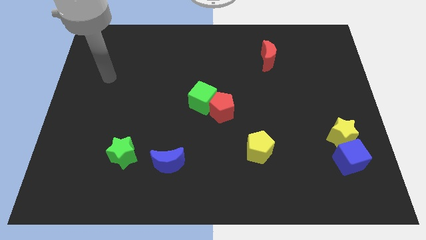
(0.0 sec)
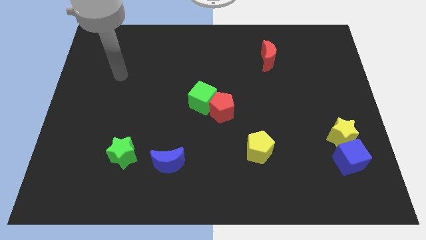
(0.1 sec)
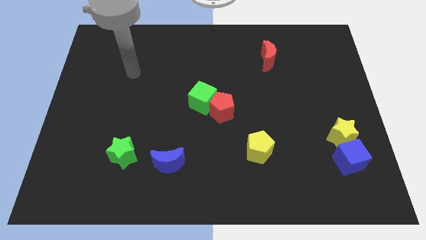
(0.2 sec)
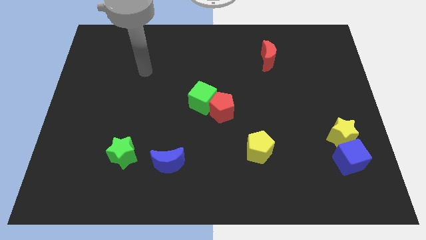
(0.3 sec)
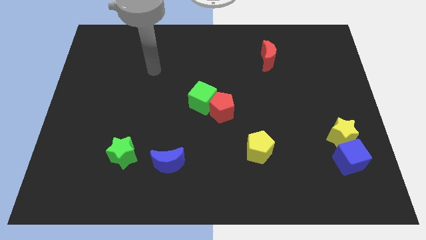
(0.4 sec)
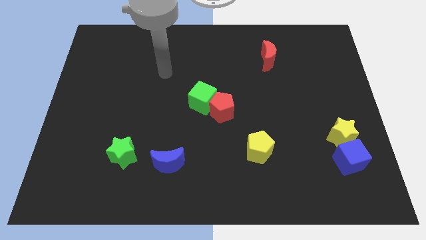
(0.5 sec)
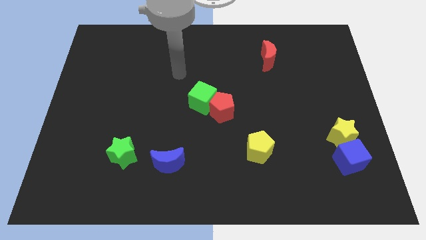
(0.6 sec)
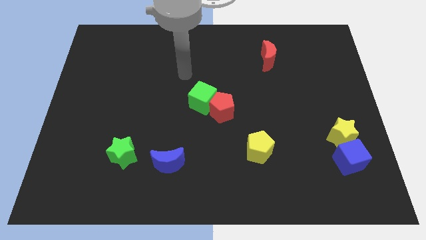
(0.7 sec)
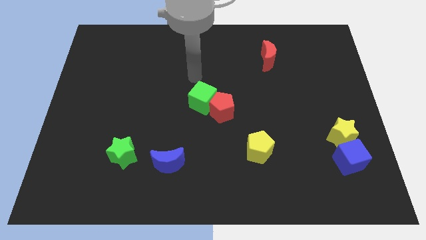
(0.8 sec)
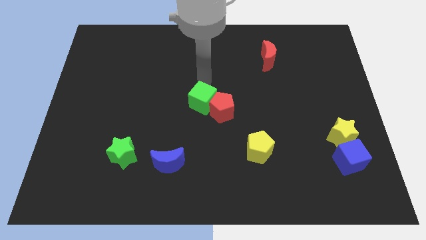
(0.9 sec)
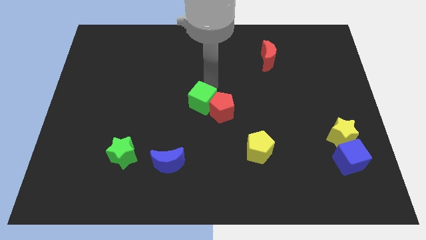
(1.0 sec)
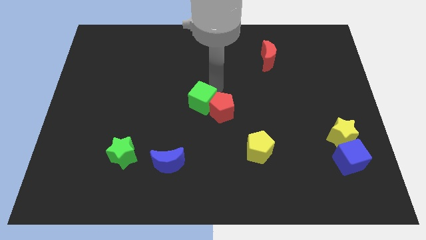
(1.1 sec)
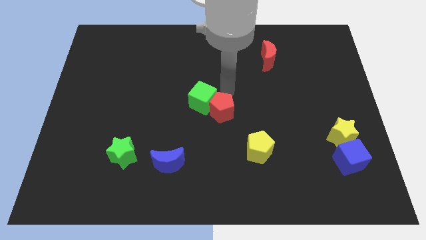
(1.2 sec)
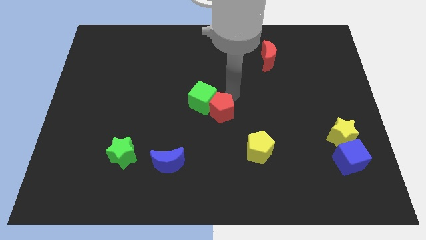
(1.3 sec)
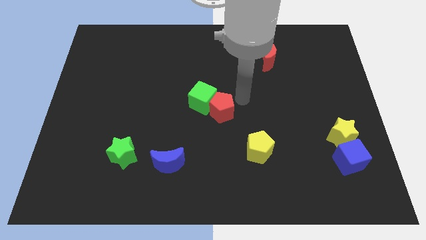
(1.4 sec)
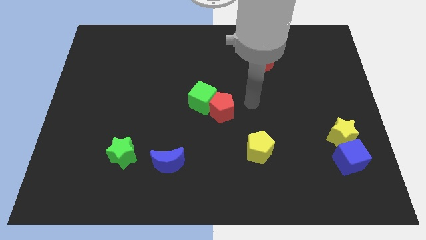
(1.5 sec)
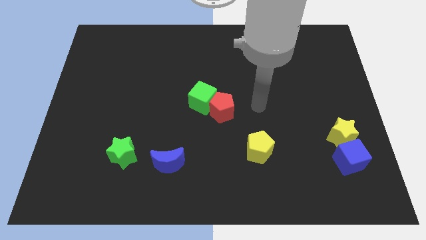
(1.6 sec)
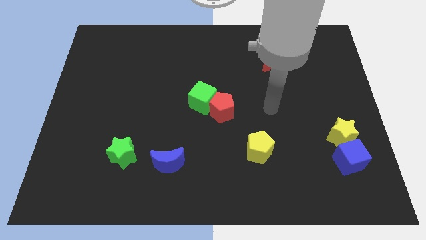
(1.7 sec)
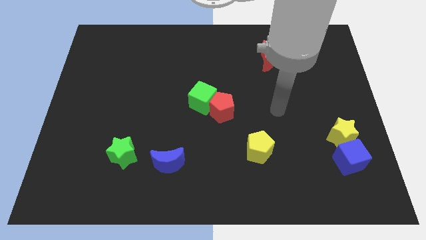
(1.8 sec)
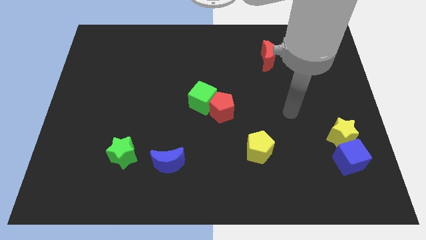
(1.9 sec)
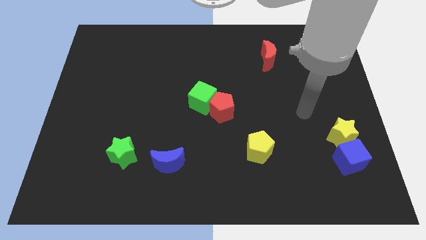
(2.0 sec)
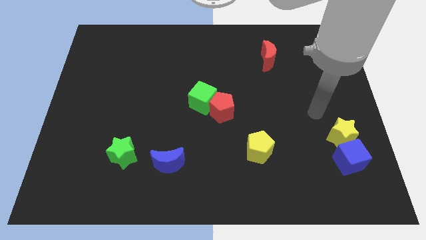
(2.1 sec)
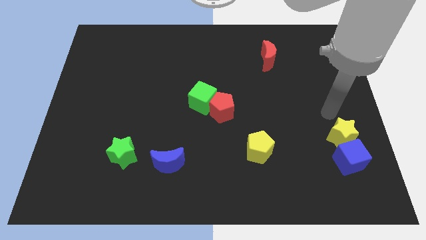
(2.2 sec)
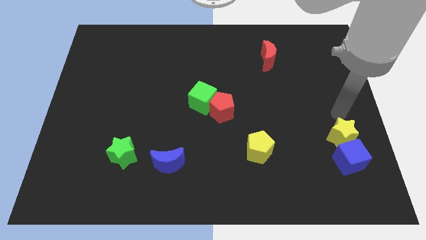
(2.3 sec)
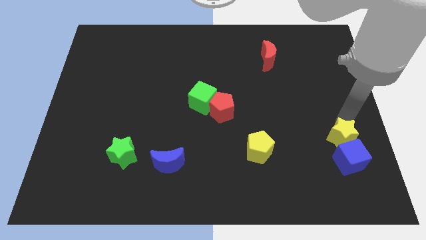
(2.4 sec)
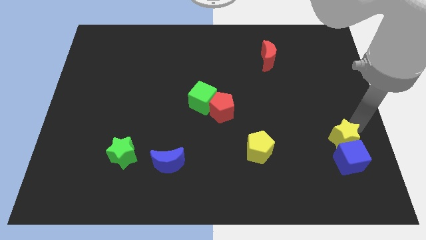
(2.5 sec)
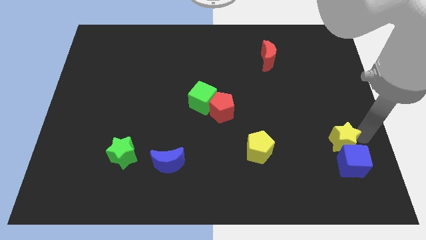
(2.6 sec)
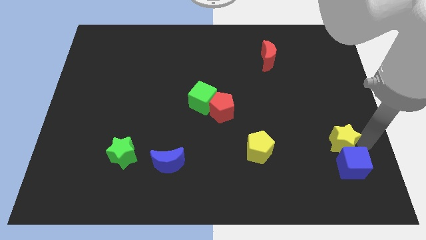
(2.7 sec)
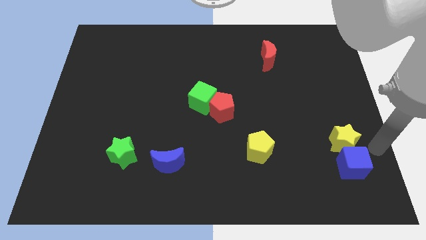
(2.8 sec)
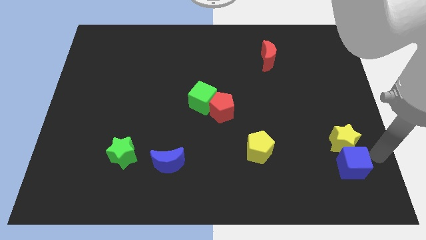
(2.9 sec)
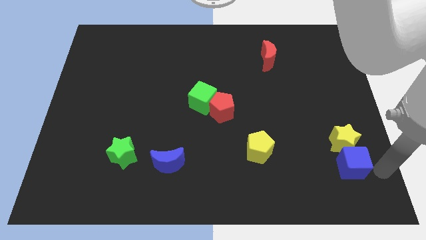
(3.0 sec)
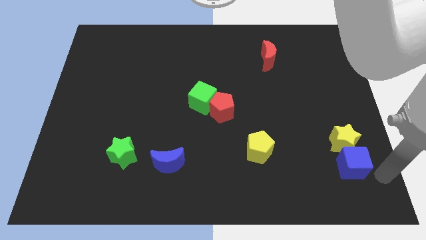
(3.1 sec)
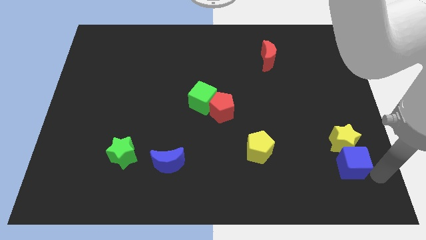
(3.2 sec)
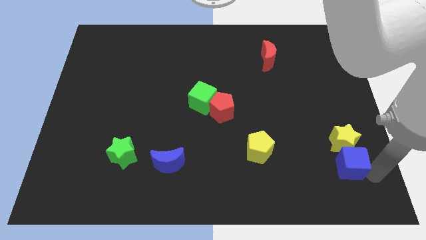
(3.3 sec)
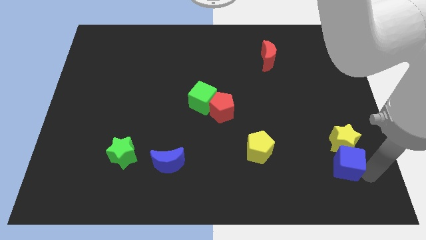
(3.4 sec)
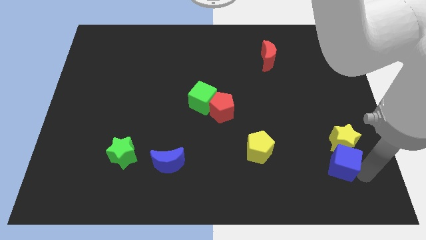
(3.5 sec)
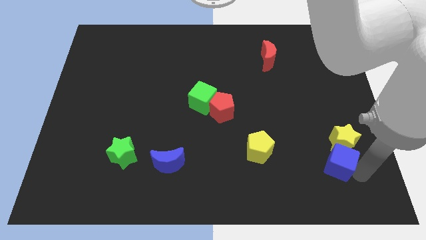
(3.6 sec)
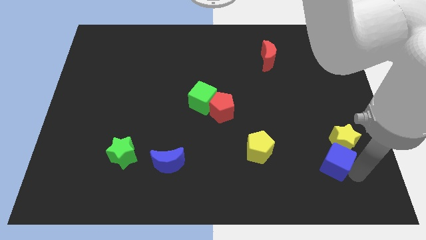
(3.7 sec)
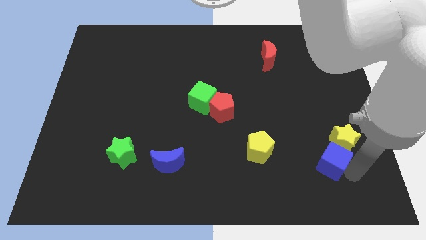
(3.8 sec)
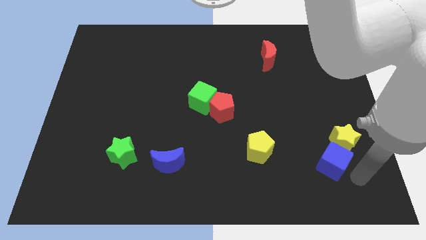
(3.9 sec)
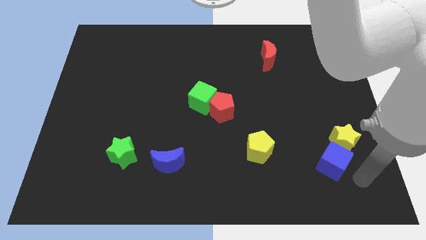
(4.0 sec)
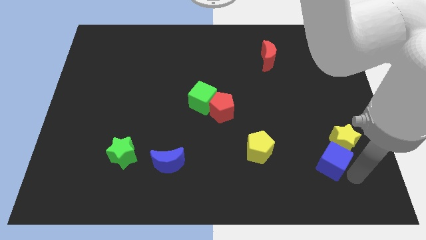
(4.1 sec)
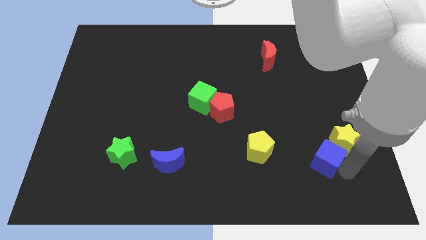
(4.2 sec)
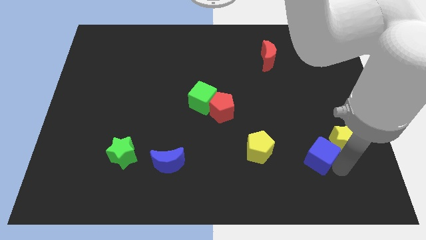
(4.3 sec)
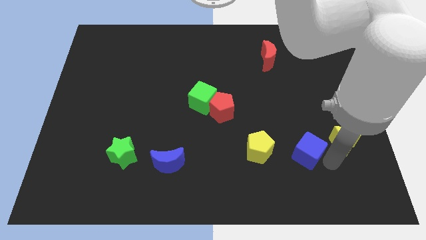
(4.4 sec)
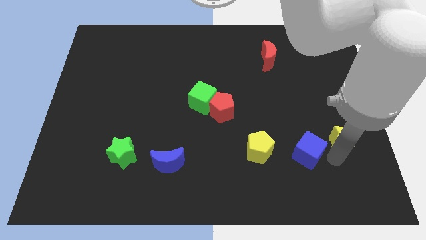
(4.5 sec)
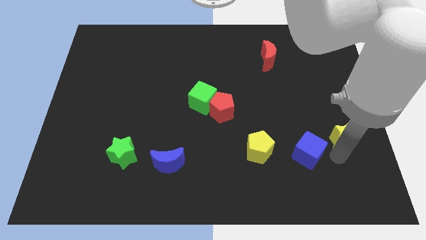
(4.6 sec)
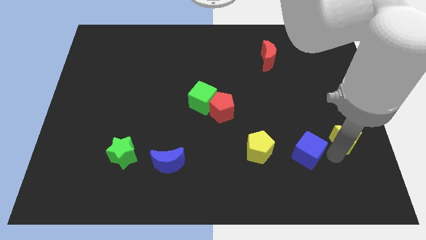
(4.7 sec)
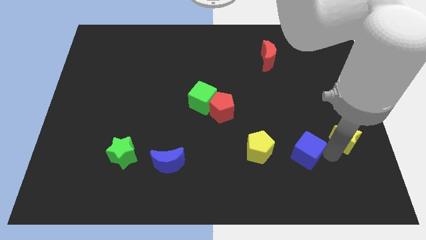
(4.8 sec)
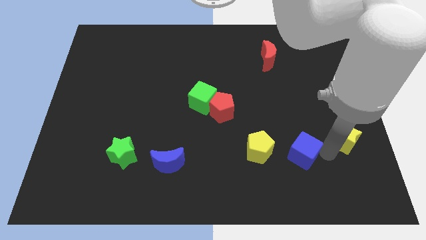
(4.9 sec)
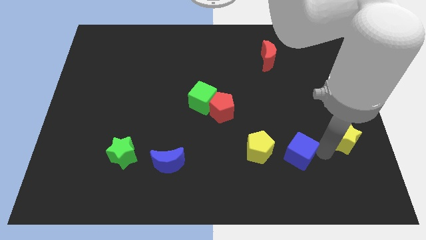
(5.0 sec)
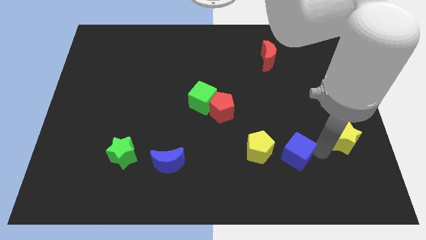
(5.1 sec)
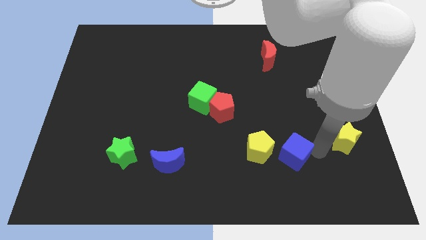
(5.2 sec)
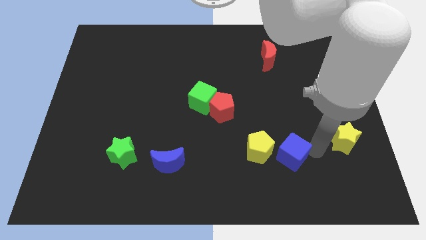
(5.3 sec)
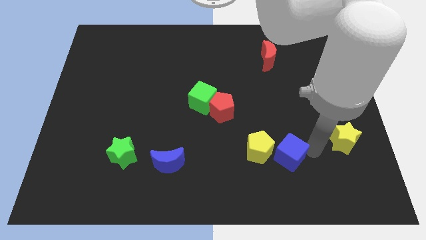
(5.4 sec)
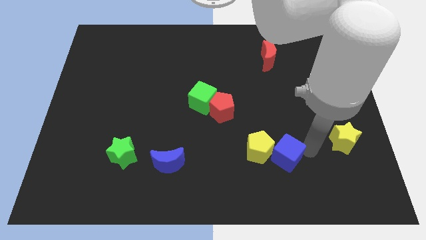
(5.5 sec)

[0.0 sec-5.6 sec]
put the blue cube to the yellow pentagon

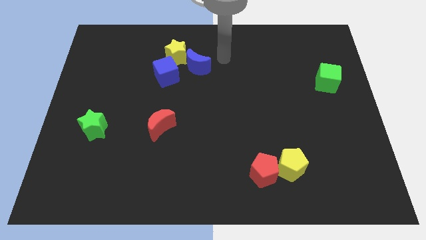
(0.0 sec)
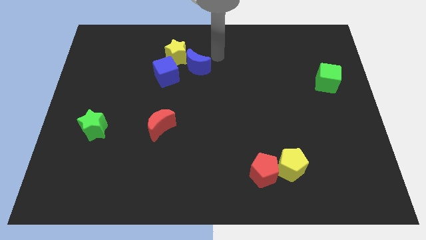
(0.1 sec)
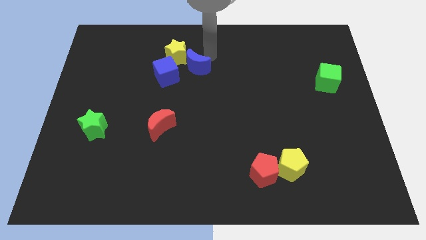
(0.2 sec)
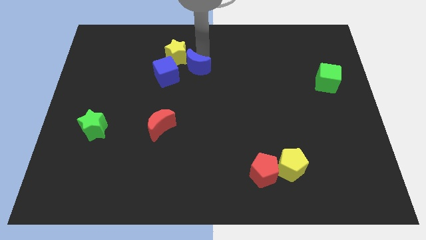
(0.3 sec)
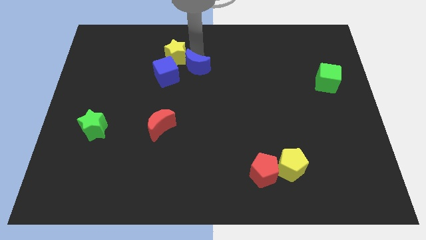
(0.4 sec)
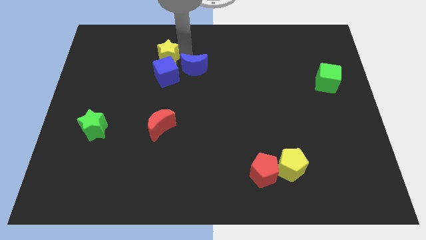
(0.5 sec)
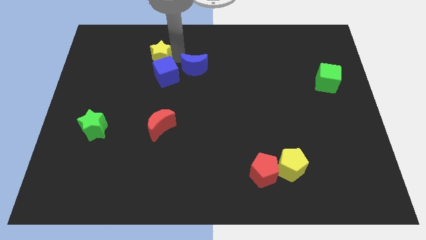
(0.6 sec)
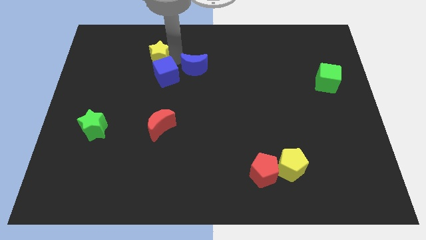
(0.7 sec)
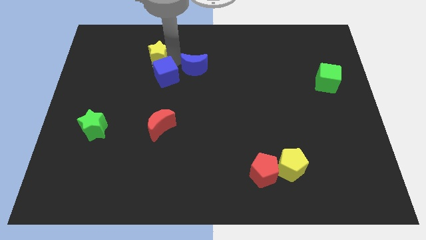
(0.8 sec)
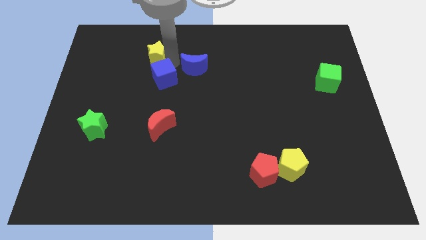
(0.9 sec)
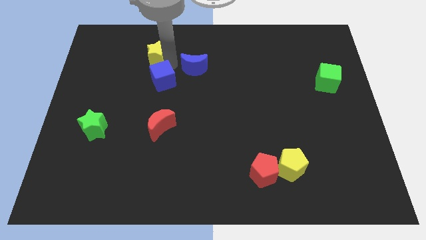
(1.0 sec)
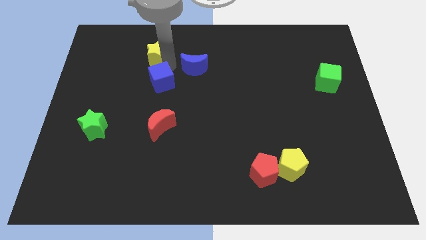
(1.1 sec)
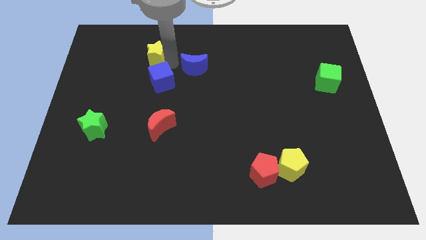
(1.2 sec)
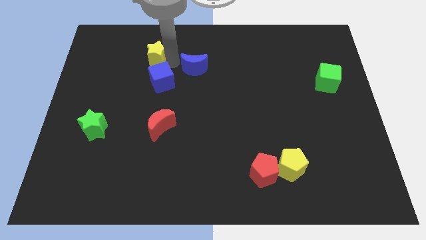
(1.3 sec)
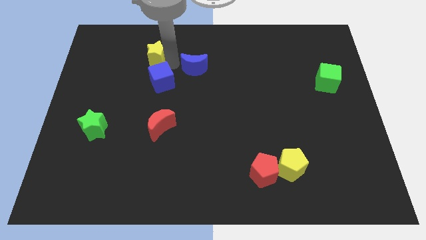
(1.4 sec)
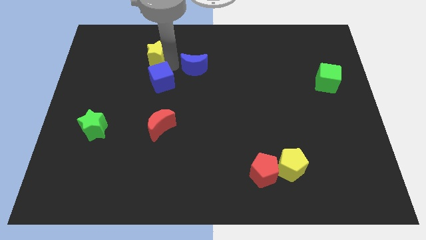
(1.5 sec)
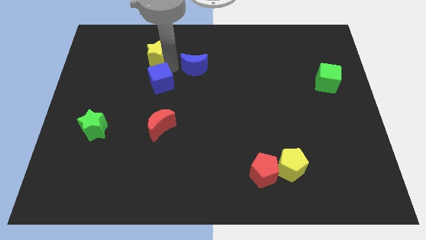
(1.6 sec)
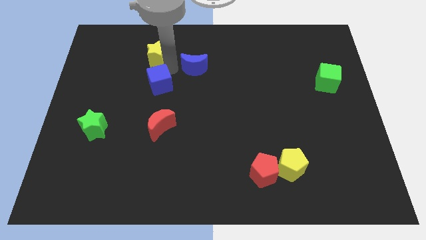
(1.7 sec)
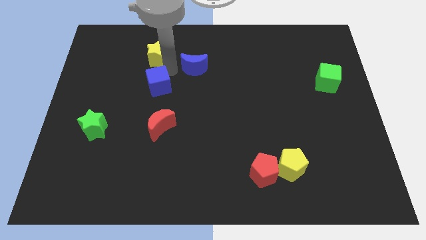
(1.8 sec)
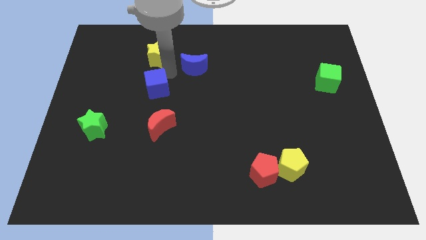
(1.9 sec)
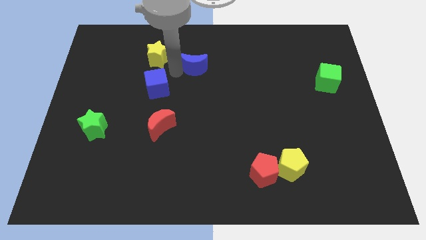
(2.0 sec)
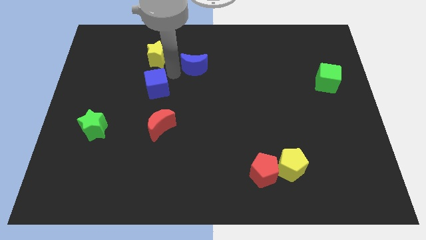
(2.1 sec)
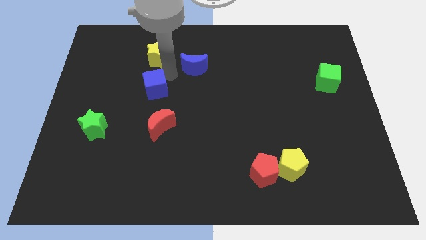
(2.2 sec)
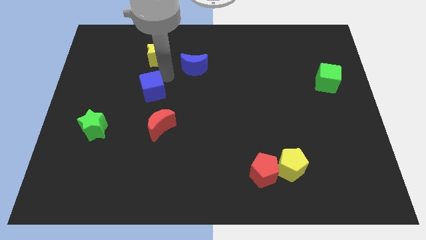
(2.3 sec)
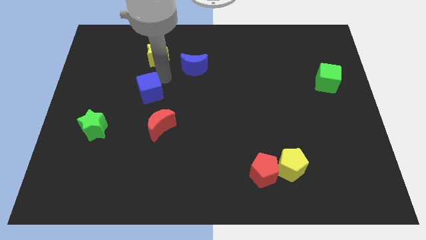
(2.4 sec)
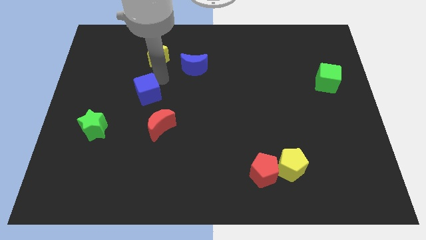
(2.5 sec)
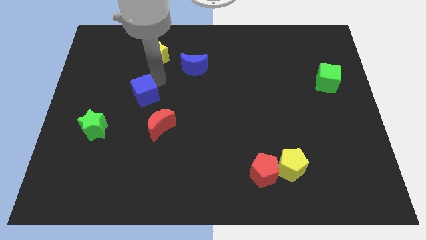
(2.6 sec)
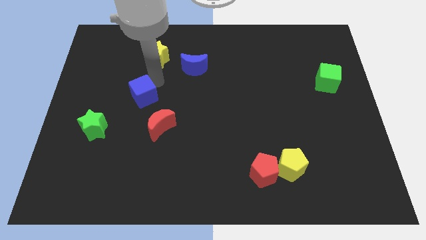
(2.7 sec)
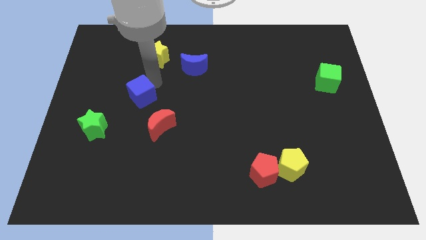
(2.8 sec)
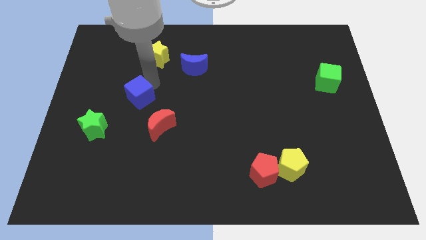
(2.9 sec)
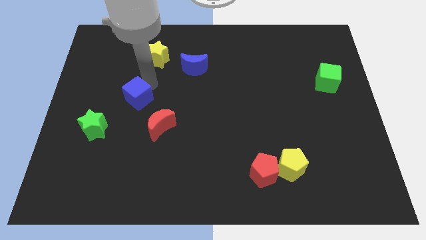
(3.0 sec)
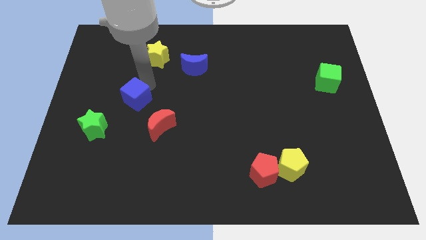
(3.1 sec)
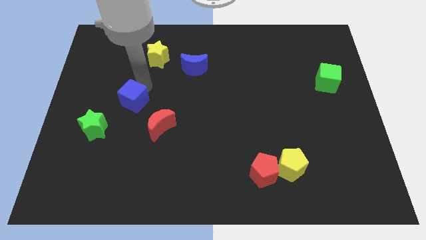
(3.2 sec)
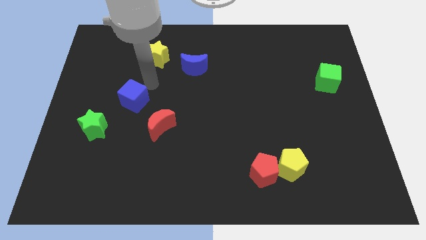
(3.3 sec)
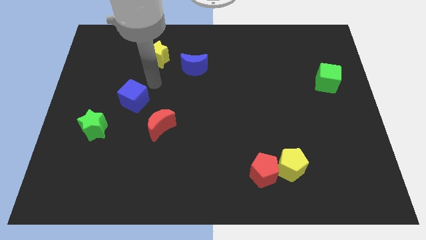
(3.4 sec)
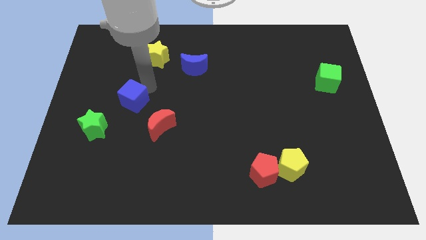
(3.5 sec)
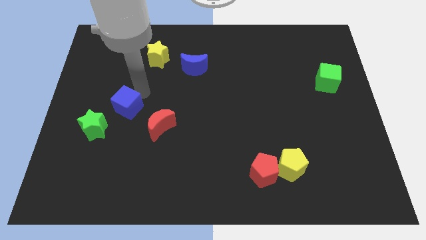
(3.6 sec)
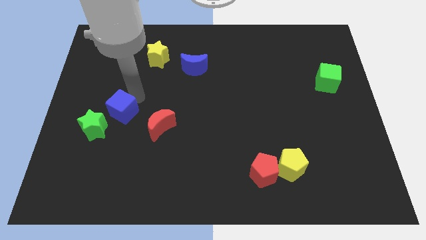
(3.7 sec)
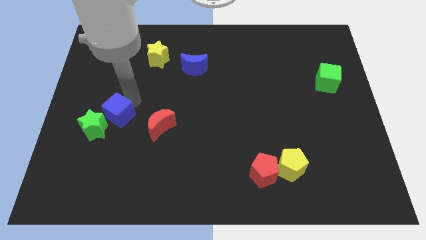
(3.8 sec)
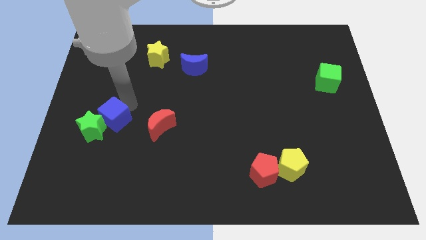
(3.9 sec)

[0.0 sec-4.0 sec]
put the blue cube towards the green star
